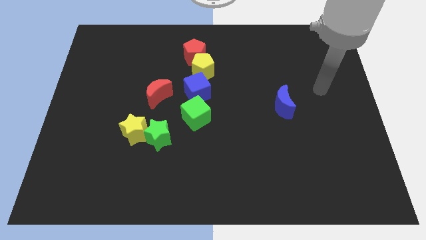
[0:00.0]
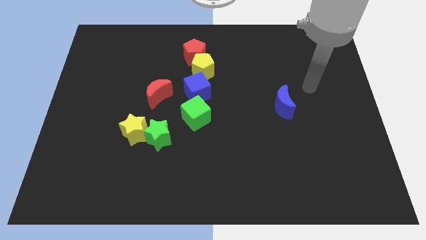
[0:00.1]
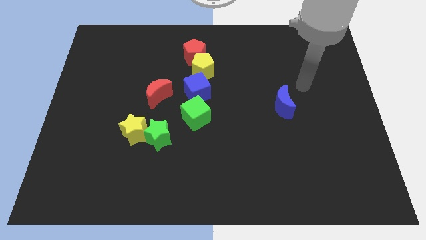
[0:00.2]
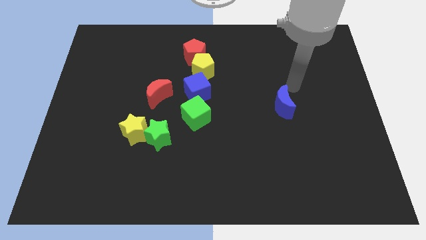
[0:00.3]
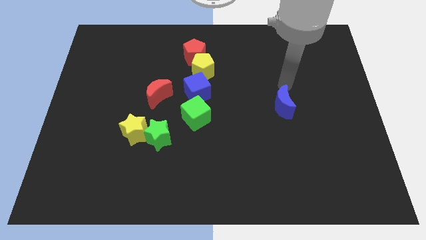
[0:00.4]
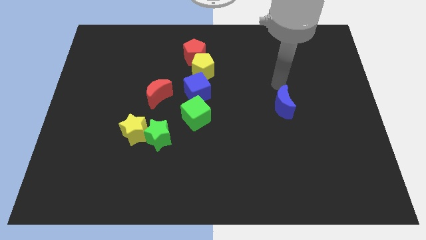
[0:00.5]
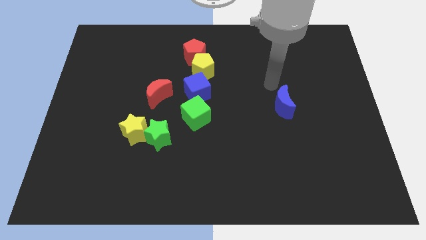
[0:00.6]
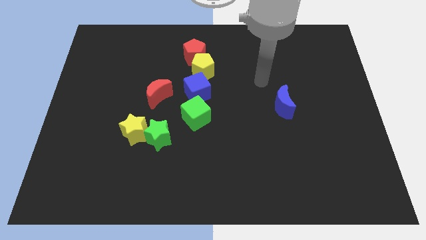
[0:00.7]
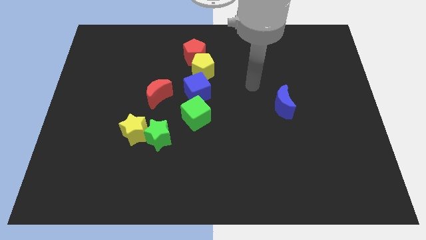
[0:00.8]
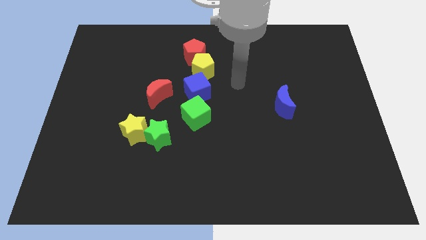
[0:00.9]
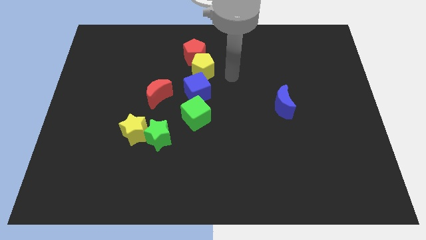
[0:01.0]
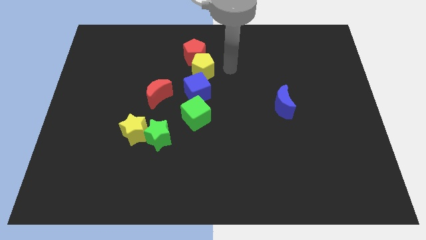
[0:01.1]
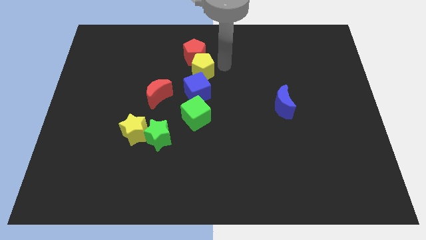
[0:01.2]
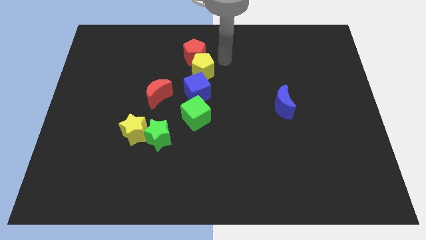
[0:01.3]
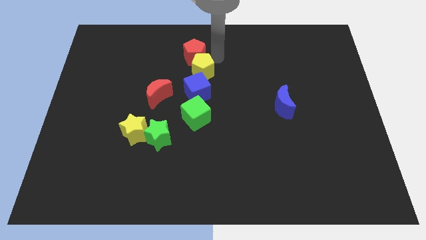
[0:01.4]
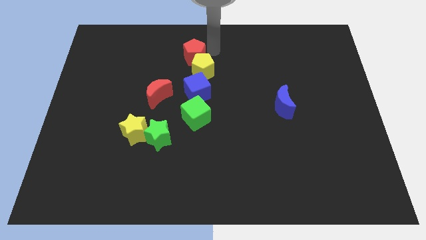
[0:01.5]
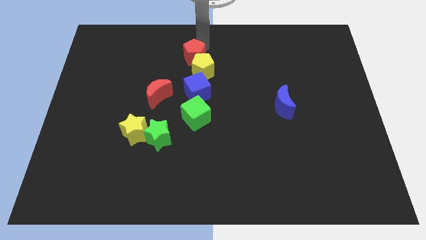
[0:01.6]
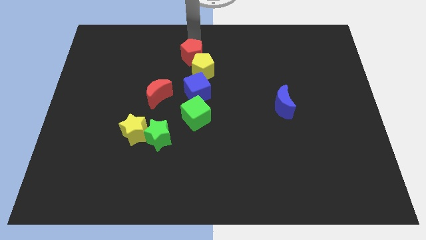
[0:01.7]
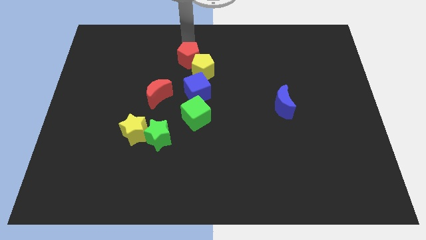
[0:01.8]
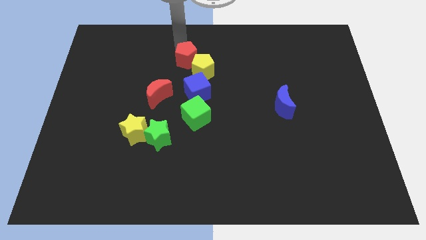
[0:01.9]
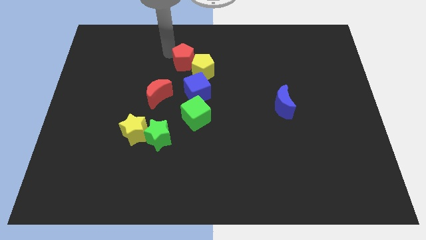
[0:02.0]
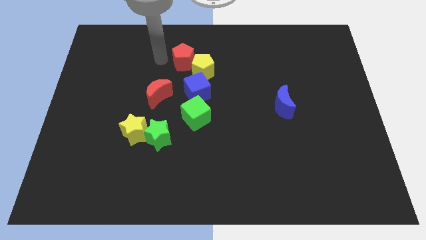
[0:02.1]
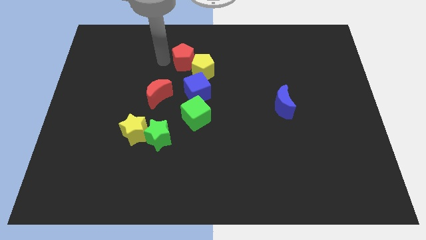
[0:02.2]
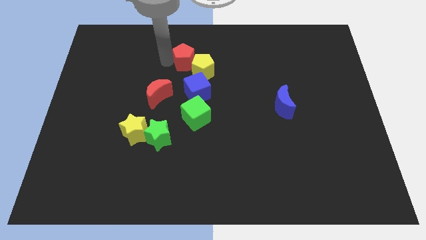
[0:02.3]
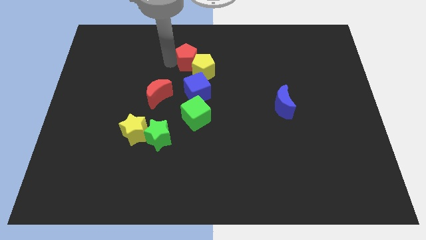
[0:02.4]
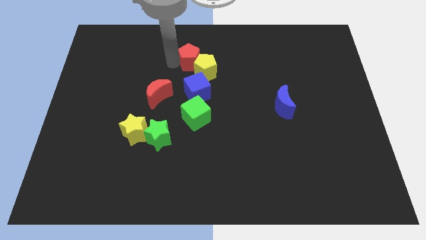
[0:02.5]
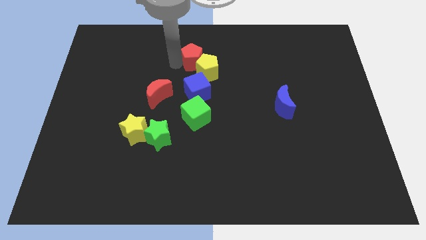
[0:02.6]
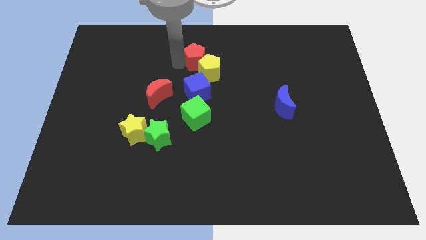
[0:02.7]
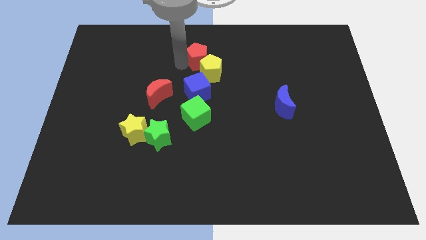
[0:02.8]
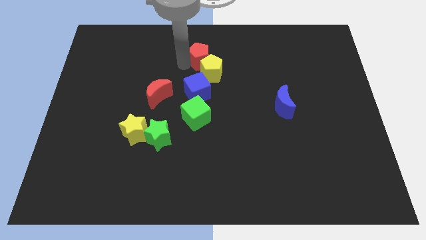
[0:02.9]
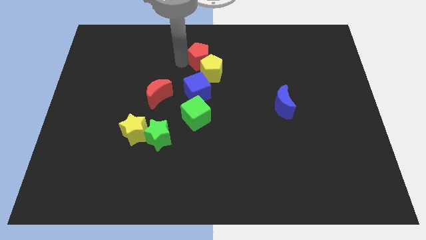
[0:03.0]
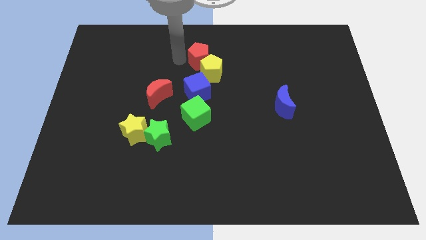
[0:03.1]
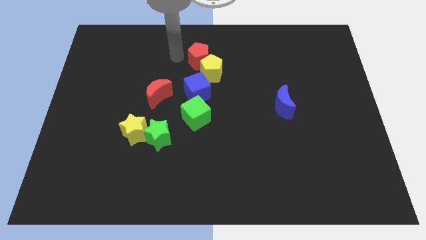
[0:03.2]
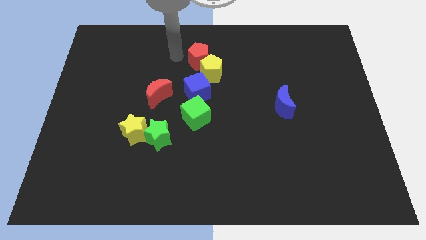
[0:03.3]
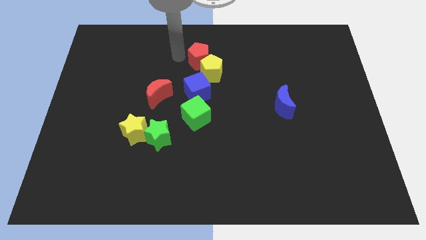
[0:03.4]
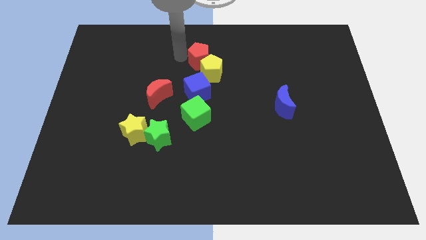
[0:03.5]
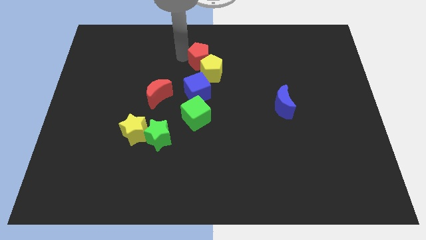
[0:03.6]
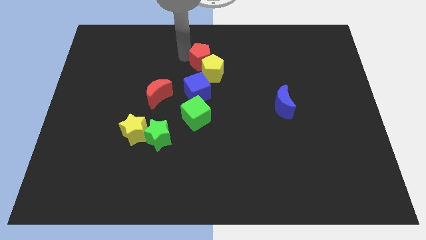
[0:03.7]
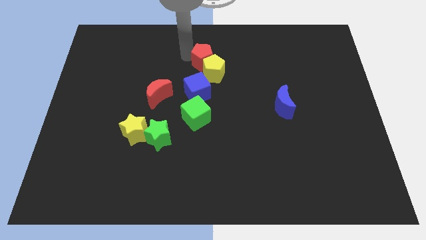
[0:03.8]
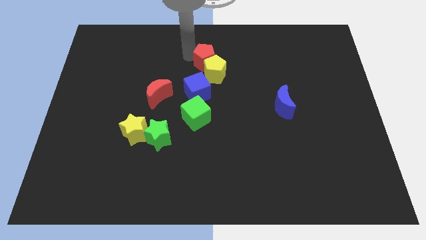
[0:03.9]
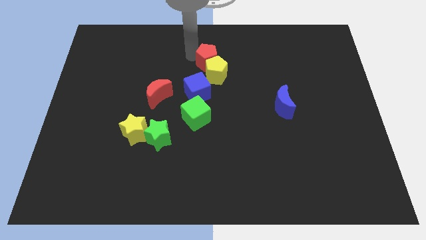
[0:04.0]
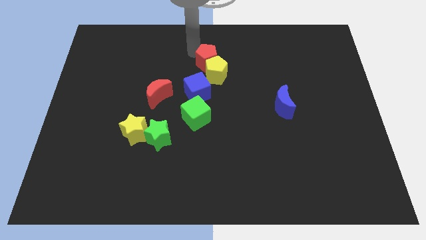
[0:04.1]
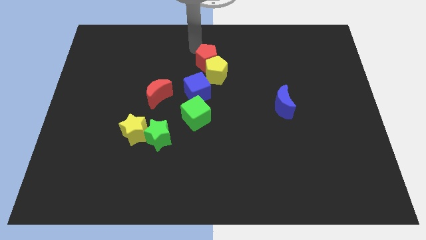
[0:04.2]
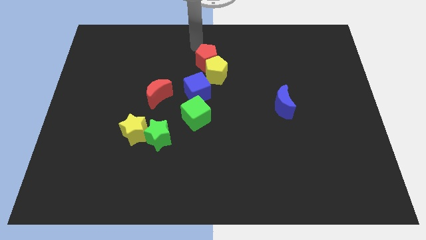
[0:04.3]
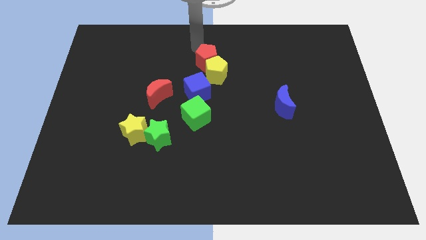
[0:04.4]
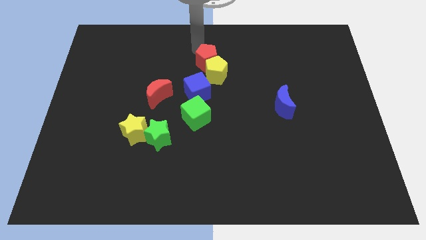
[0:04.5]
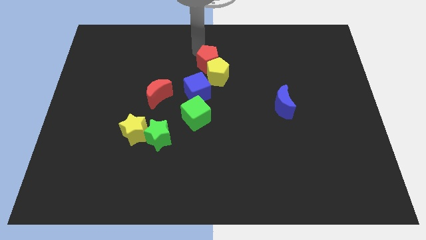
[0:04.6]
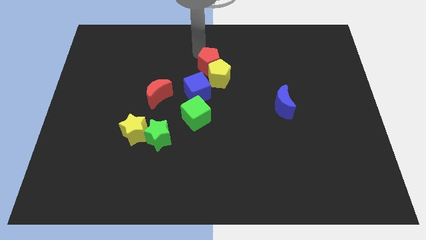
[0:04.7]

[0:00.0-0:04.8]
move the red pentagon to the top right side of the blue cube

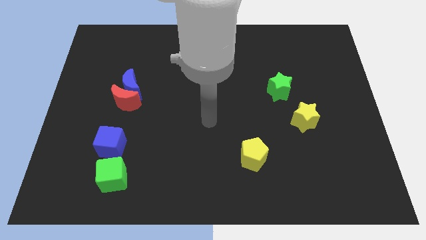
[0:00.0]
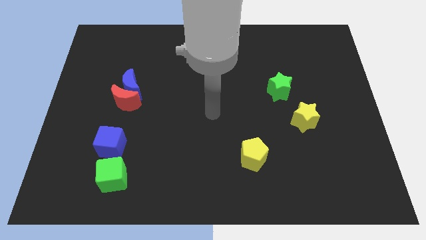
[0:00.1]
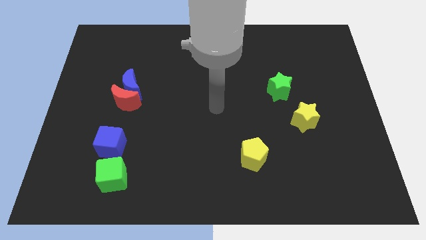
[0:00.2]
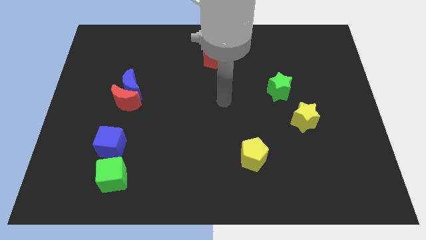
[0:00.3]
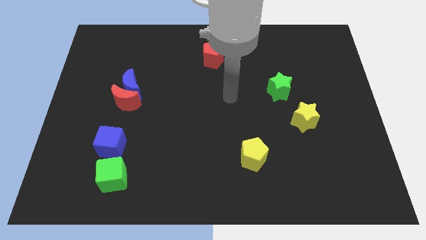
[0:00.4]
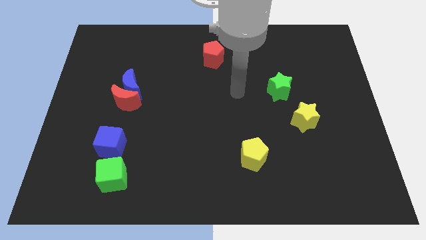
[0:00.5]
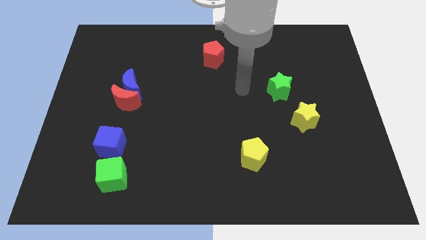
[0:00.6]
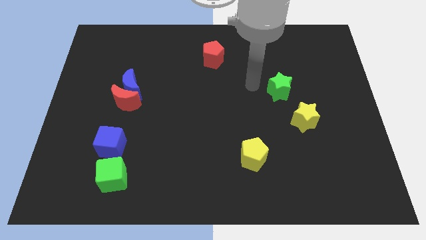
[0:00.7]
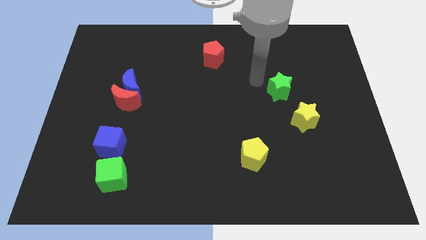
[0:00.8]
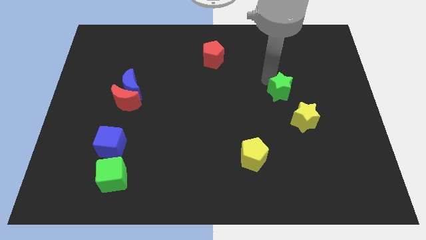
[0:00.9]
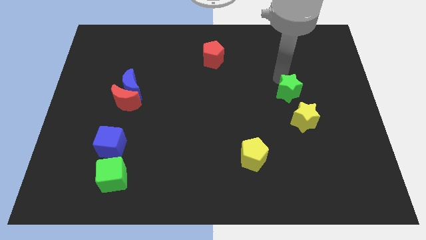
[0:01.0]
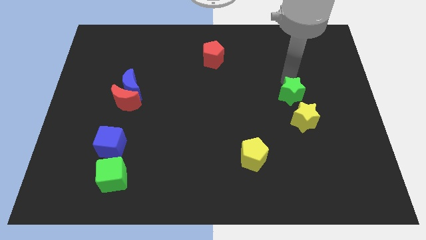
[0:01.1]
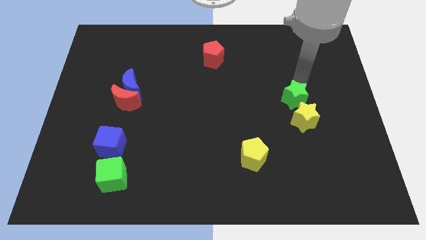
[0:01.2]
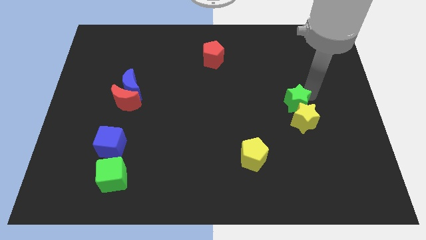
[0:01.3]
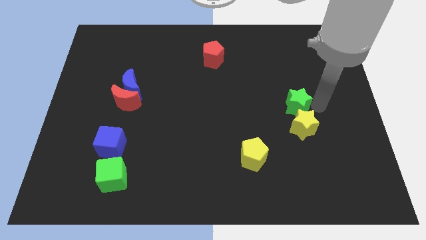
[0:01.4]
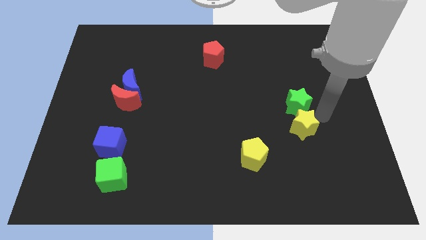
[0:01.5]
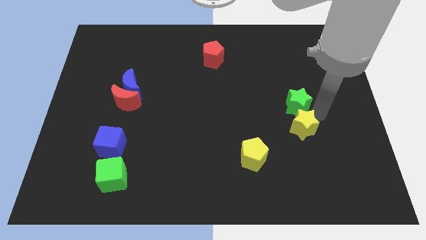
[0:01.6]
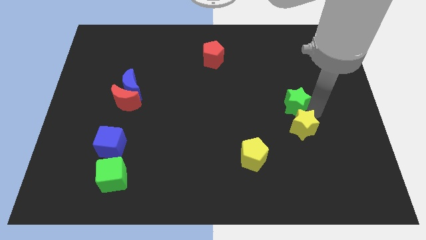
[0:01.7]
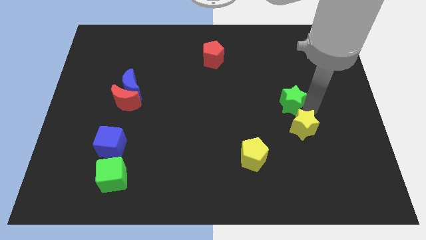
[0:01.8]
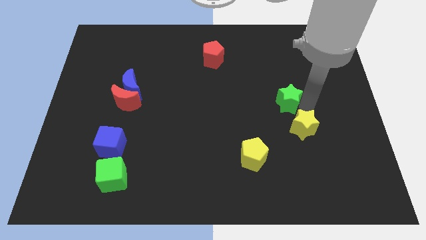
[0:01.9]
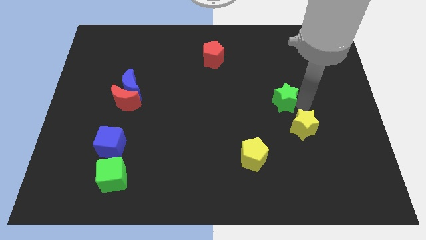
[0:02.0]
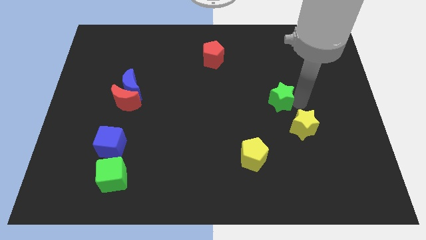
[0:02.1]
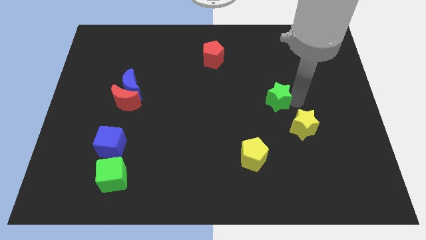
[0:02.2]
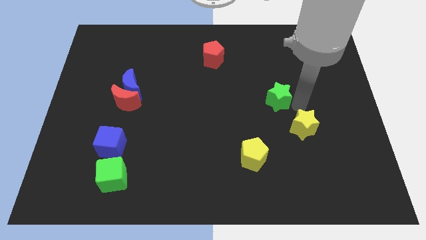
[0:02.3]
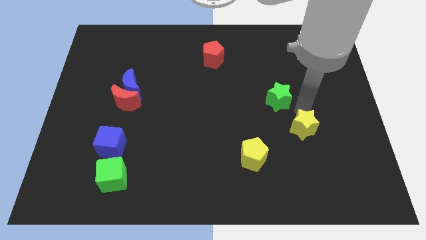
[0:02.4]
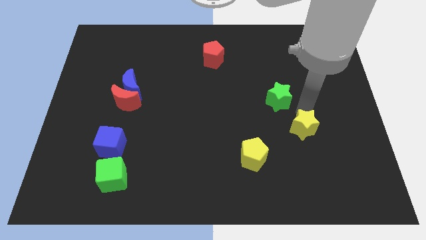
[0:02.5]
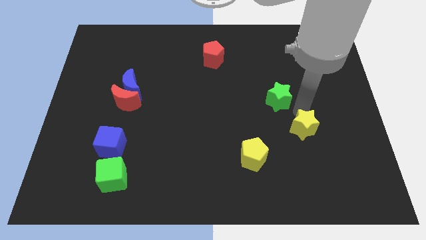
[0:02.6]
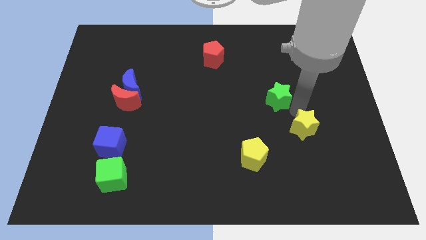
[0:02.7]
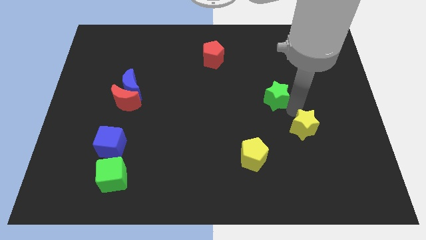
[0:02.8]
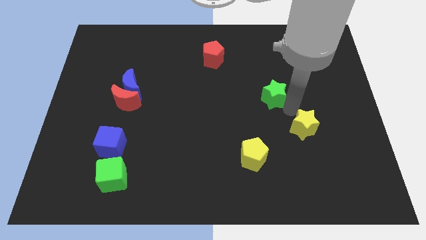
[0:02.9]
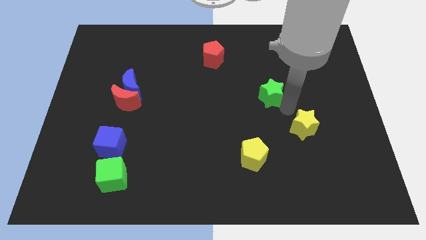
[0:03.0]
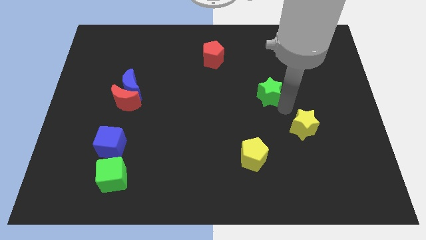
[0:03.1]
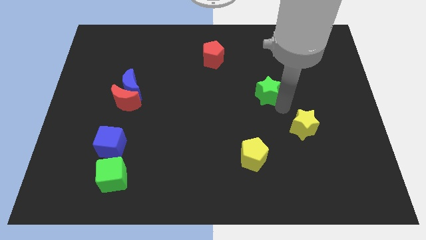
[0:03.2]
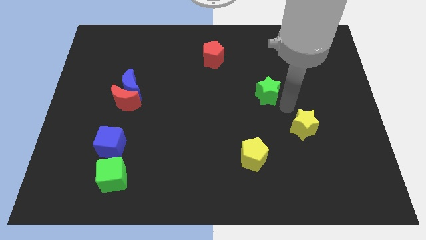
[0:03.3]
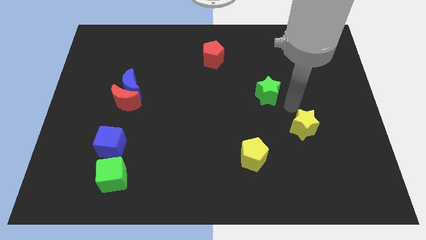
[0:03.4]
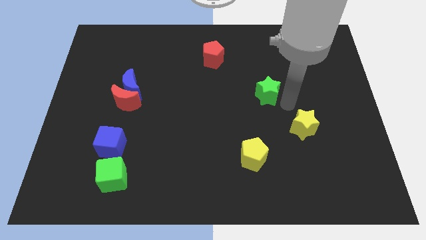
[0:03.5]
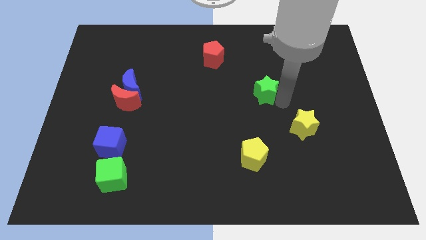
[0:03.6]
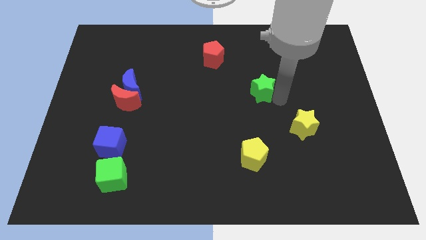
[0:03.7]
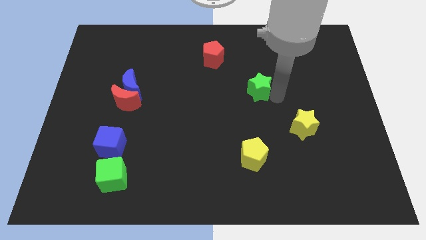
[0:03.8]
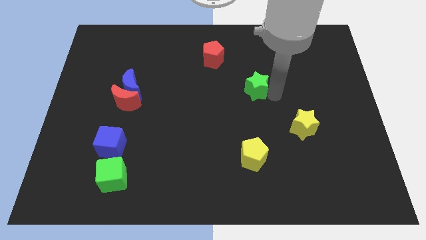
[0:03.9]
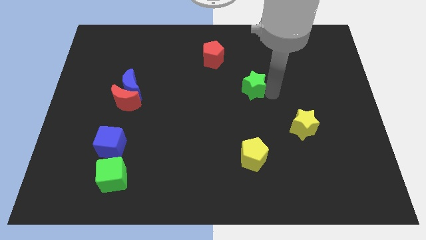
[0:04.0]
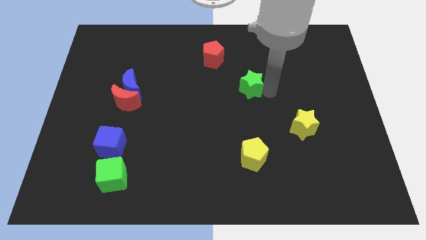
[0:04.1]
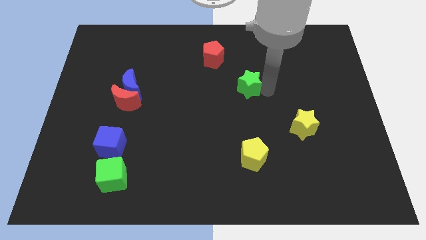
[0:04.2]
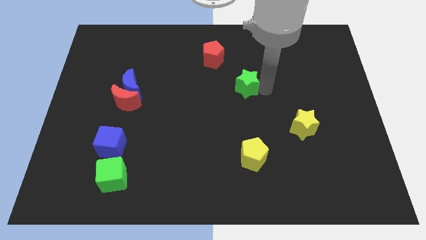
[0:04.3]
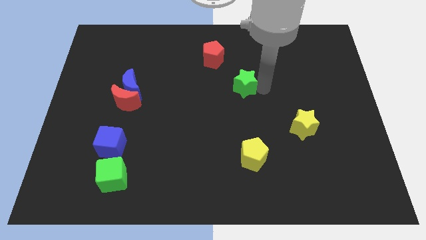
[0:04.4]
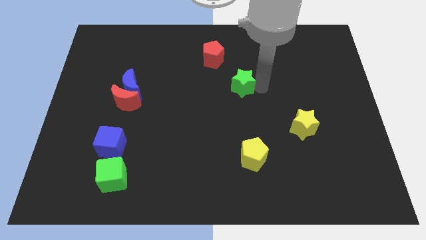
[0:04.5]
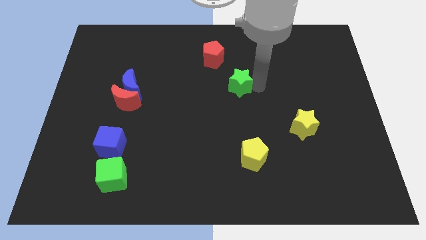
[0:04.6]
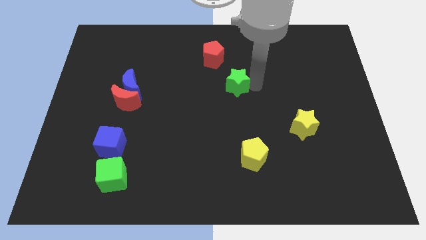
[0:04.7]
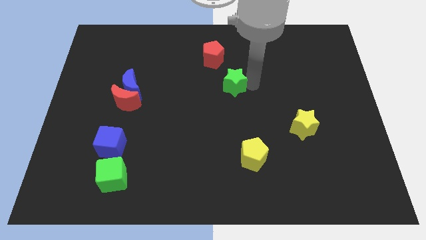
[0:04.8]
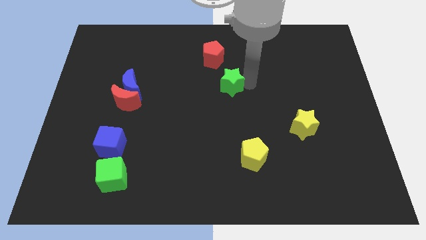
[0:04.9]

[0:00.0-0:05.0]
slide the green star below the red pentagon
